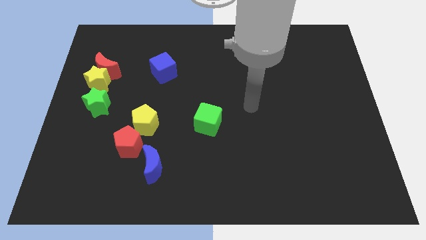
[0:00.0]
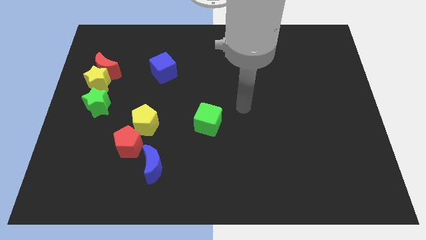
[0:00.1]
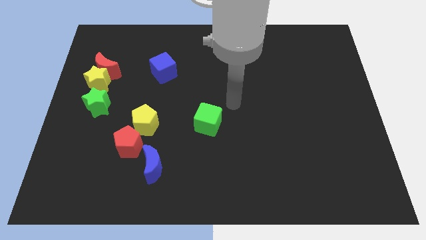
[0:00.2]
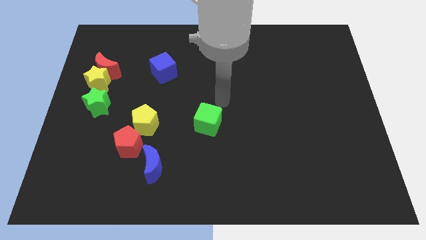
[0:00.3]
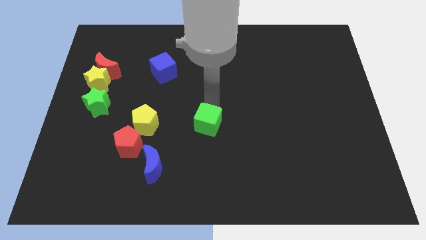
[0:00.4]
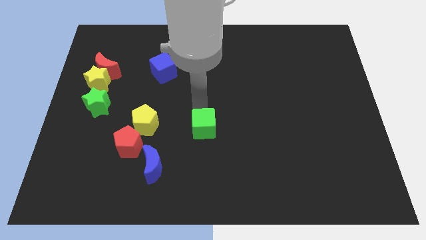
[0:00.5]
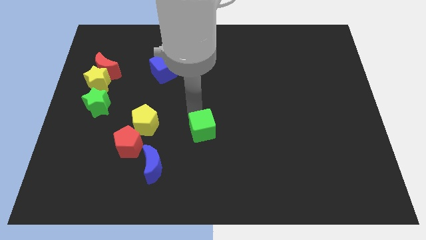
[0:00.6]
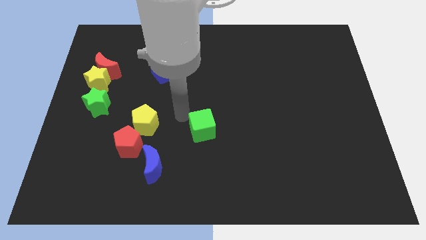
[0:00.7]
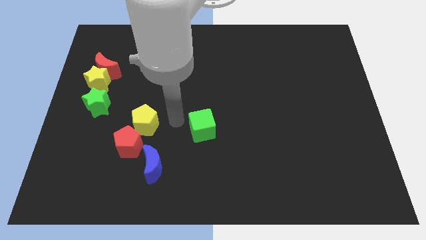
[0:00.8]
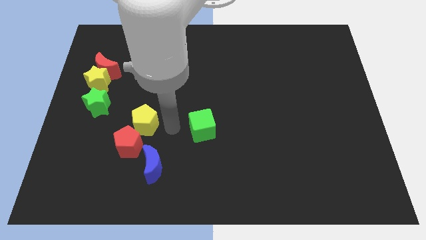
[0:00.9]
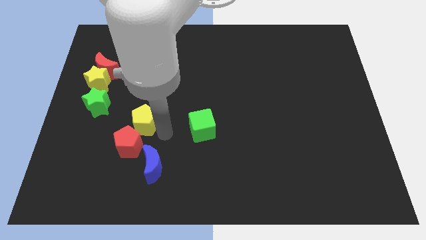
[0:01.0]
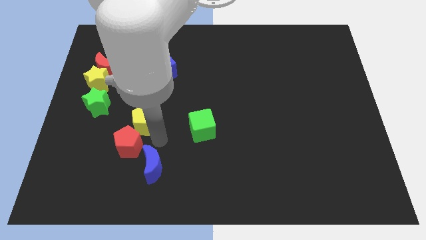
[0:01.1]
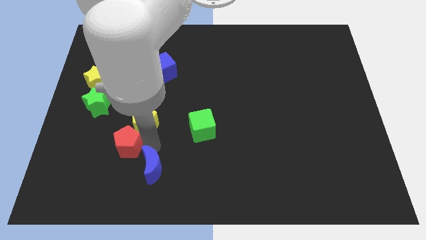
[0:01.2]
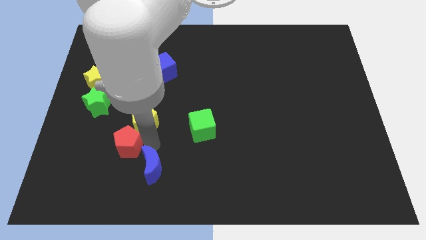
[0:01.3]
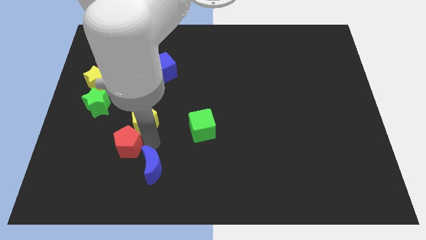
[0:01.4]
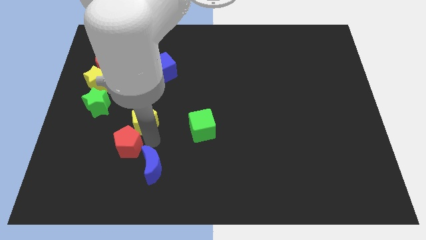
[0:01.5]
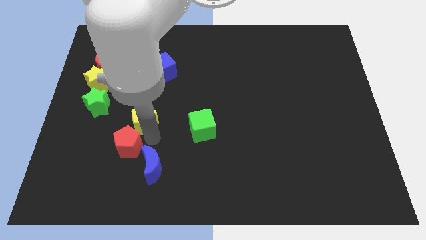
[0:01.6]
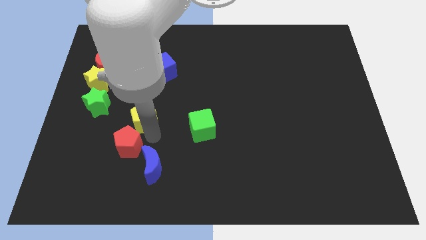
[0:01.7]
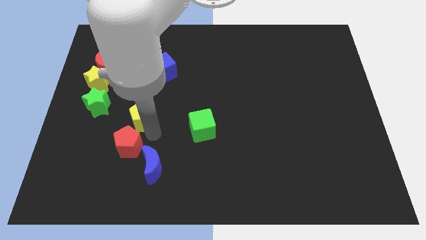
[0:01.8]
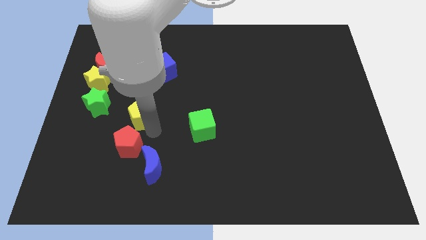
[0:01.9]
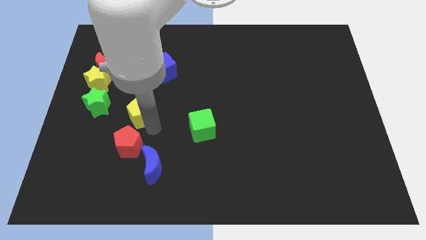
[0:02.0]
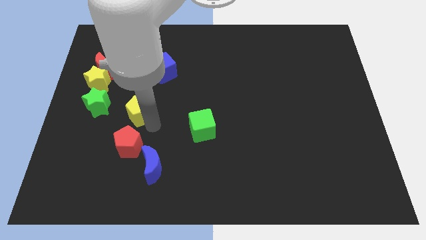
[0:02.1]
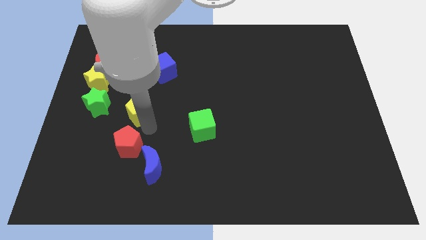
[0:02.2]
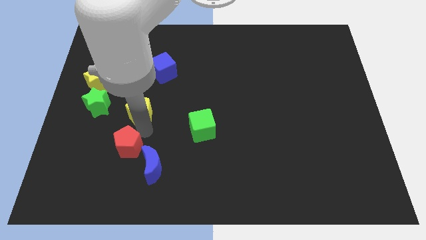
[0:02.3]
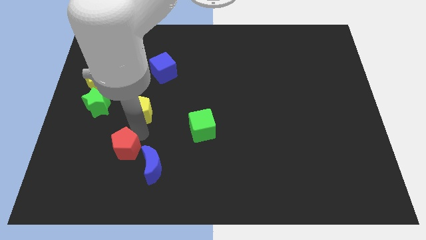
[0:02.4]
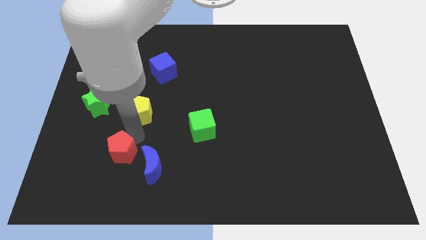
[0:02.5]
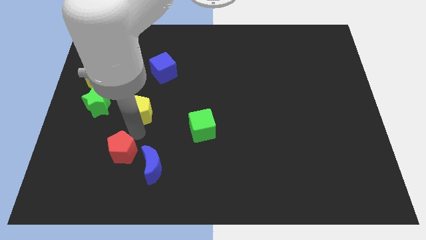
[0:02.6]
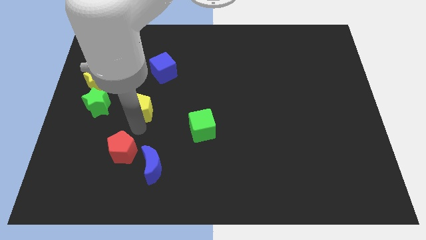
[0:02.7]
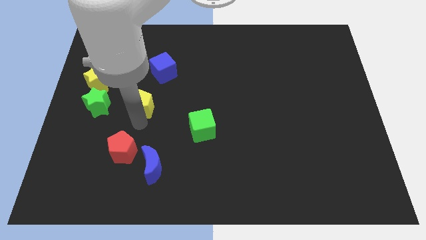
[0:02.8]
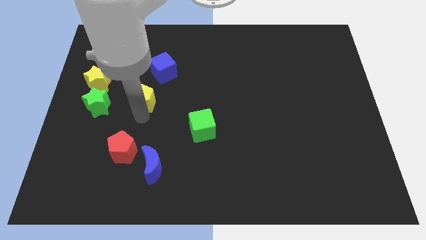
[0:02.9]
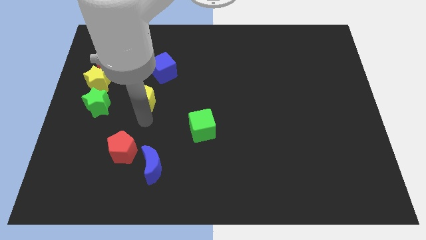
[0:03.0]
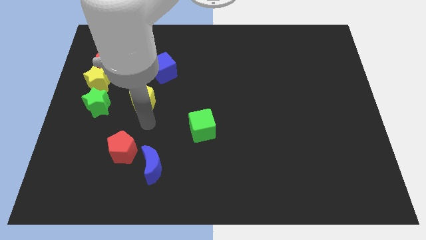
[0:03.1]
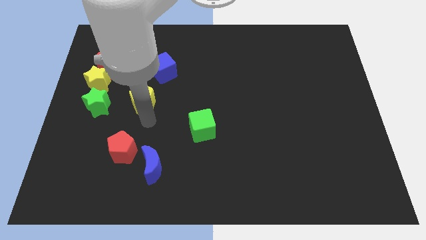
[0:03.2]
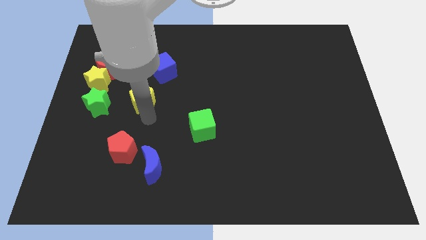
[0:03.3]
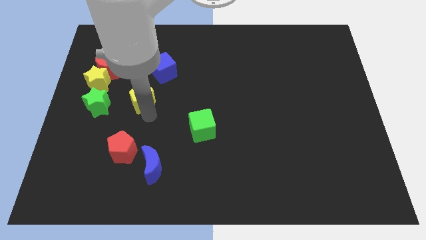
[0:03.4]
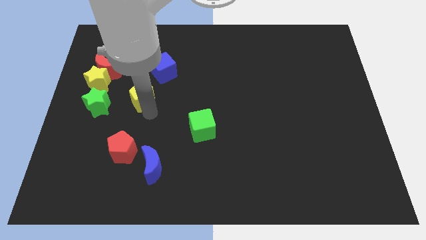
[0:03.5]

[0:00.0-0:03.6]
slide the yellow pentagon upwards a bit

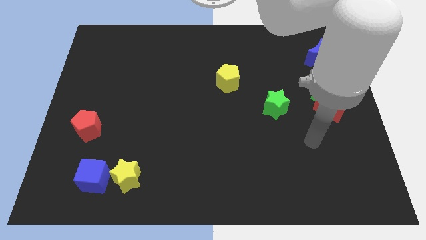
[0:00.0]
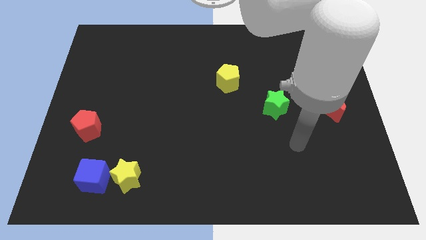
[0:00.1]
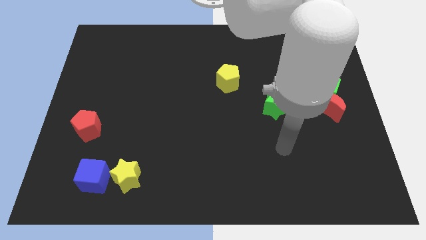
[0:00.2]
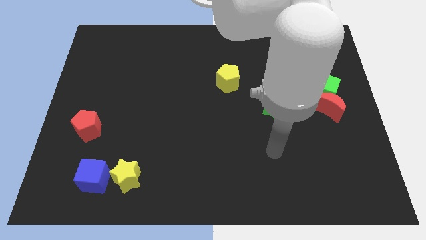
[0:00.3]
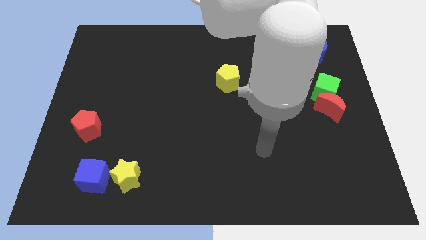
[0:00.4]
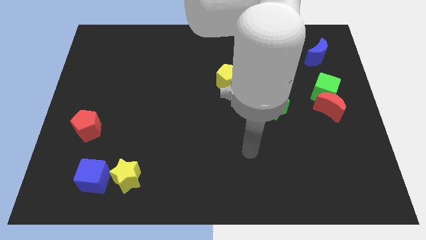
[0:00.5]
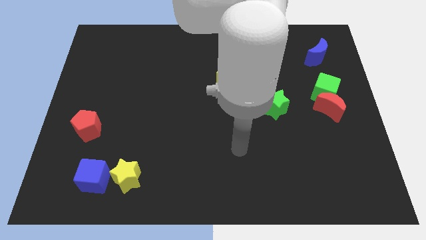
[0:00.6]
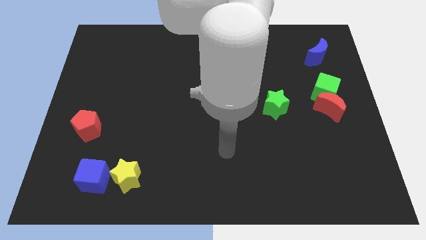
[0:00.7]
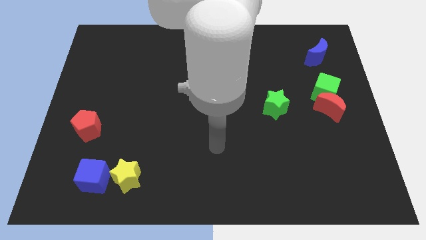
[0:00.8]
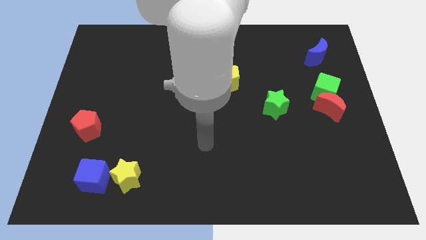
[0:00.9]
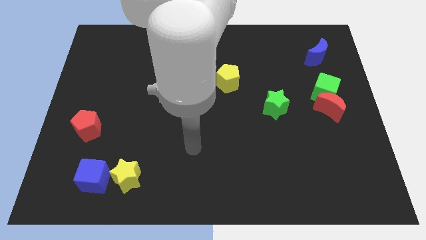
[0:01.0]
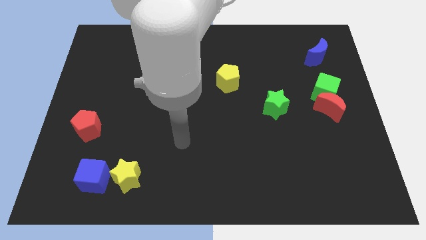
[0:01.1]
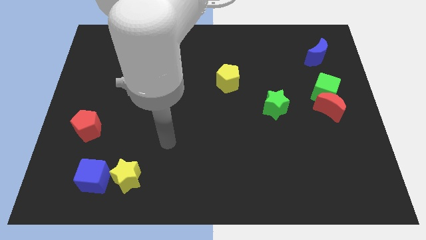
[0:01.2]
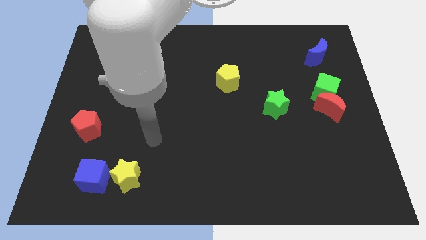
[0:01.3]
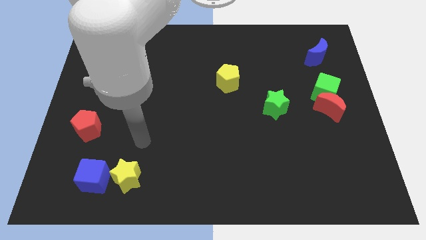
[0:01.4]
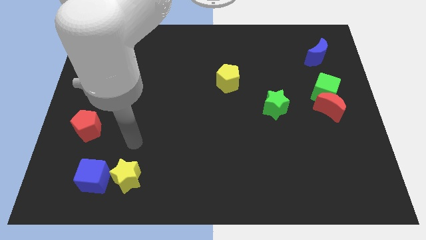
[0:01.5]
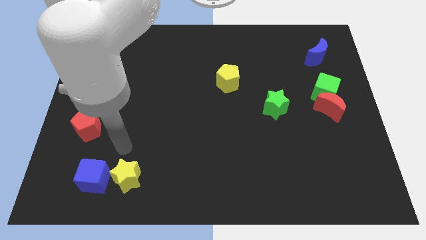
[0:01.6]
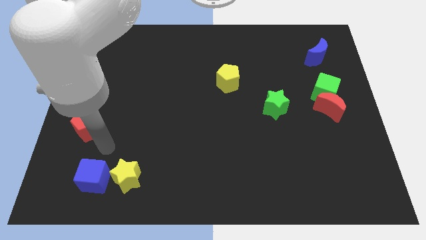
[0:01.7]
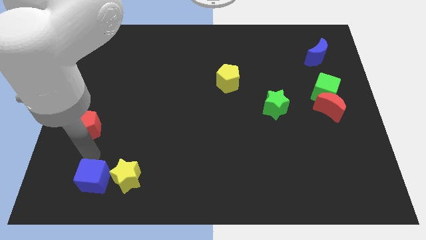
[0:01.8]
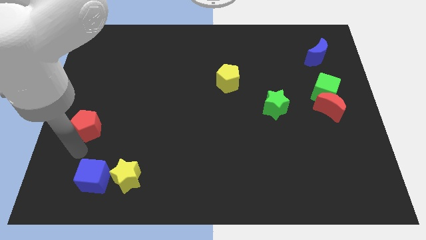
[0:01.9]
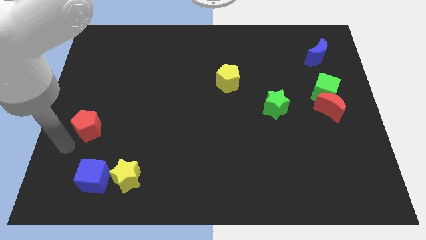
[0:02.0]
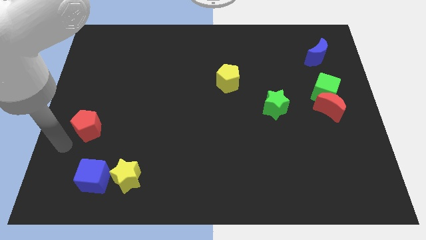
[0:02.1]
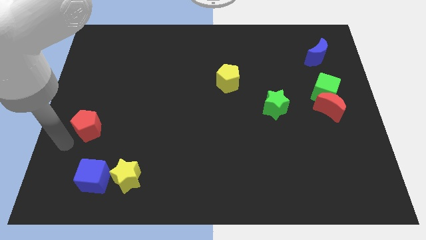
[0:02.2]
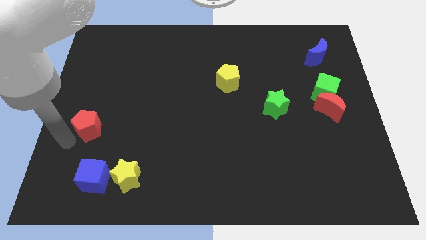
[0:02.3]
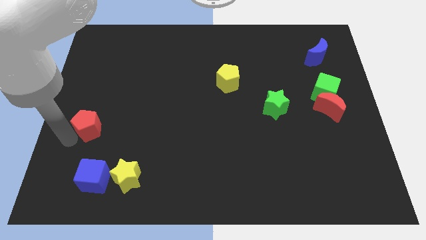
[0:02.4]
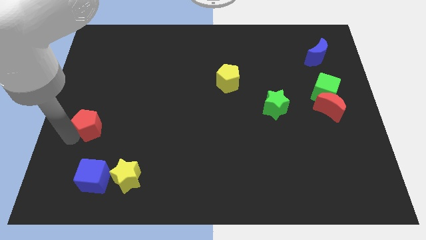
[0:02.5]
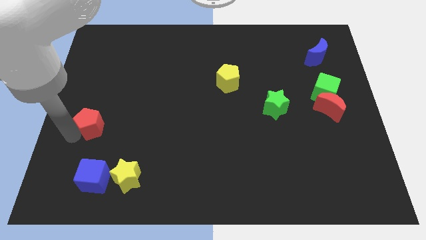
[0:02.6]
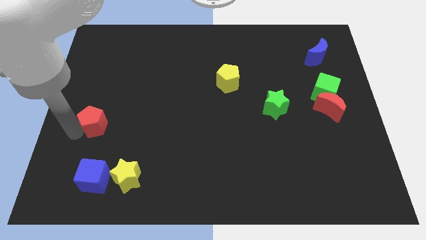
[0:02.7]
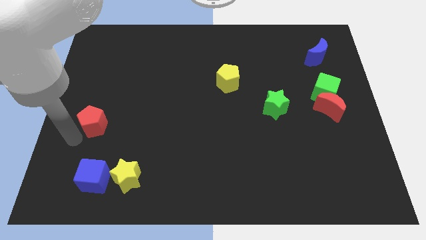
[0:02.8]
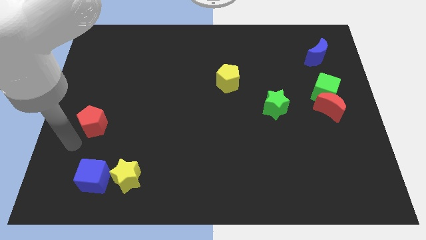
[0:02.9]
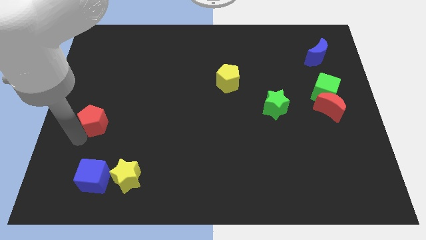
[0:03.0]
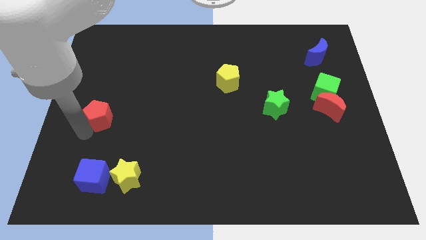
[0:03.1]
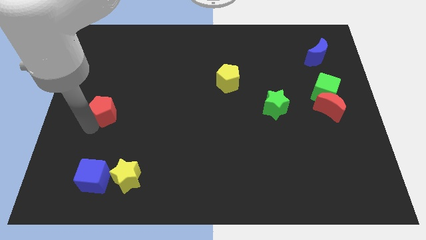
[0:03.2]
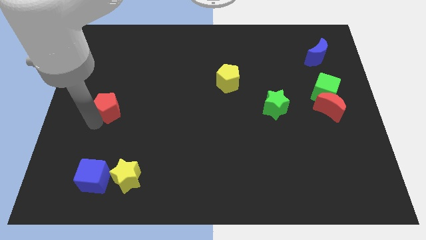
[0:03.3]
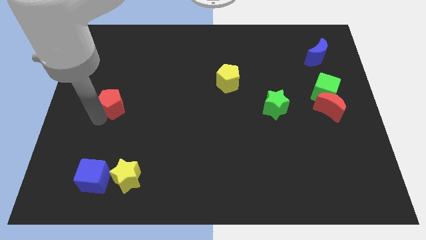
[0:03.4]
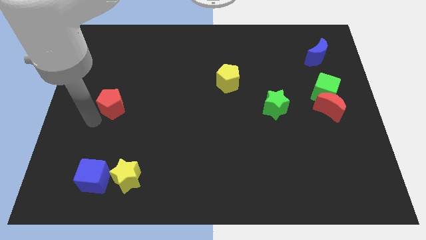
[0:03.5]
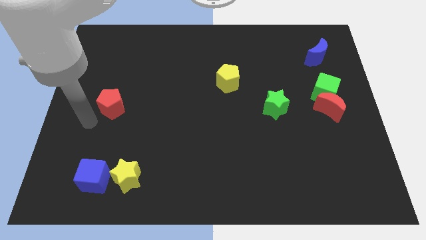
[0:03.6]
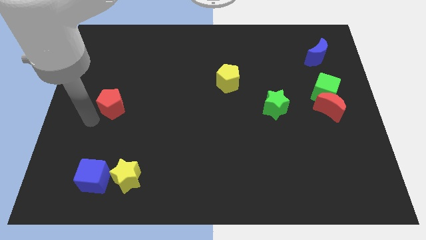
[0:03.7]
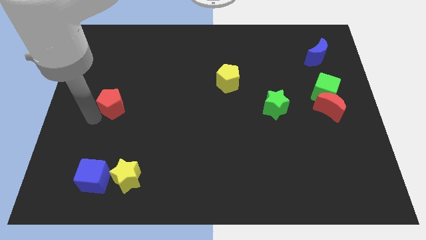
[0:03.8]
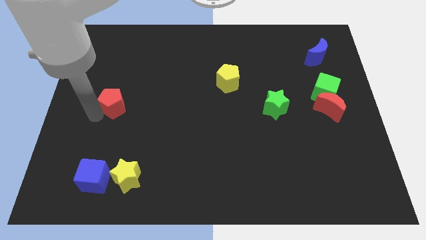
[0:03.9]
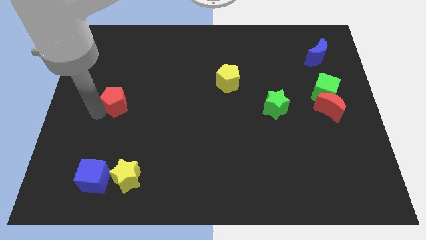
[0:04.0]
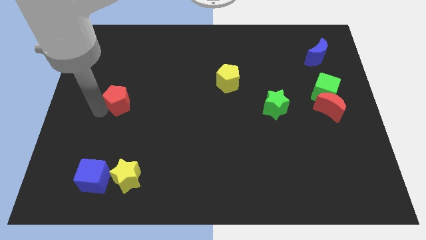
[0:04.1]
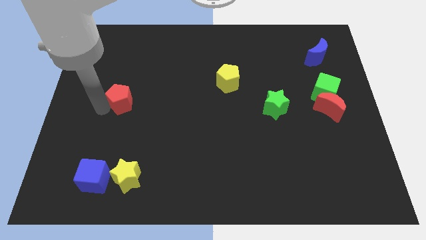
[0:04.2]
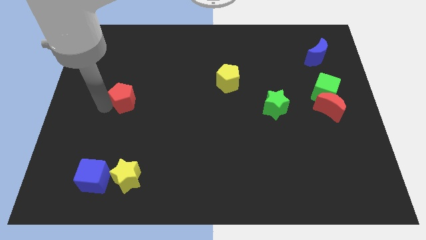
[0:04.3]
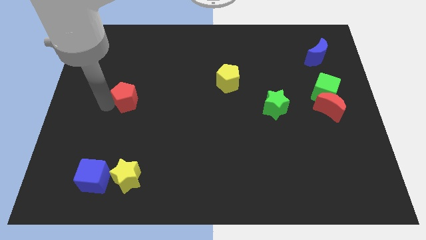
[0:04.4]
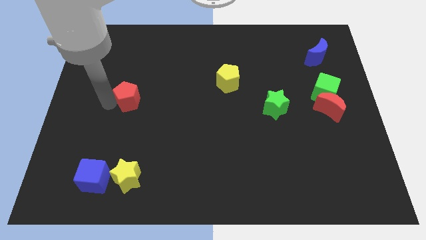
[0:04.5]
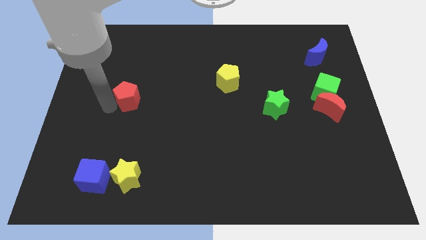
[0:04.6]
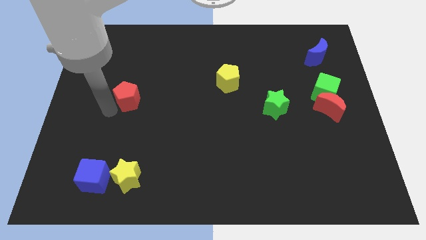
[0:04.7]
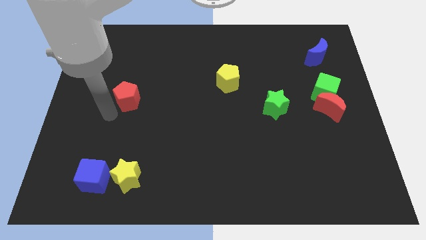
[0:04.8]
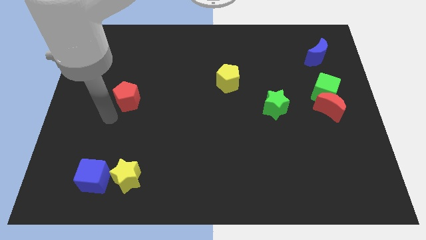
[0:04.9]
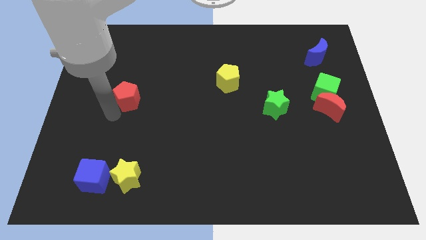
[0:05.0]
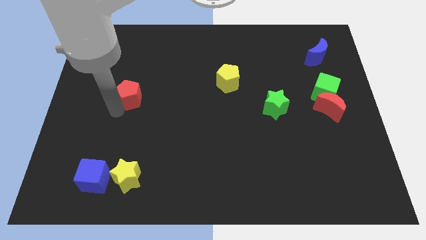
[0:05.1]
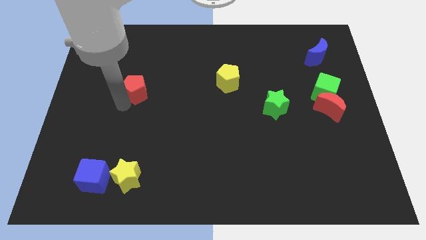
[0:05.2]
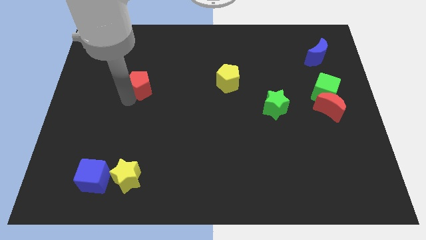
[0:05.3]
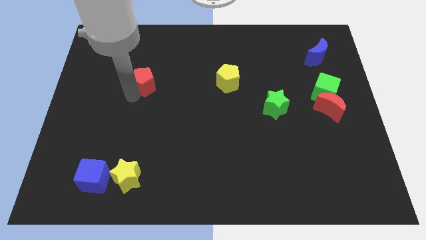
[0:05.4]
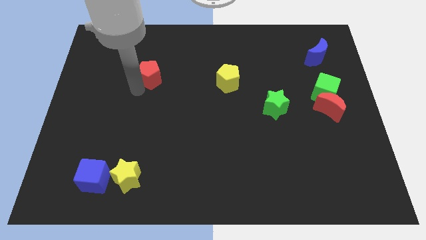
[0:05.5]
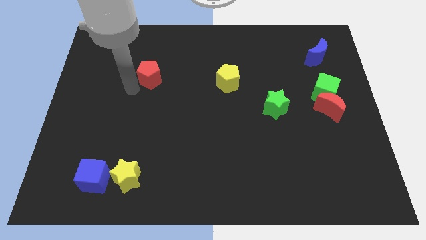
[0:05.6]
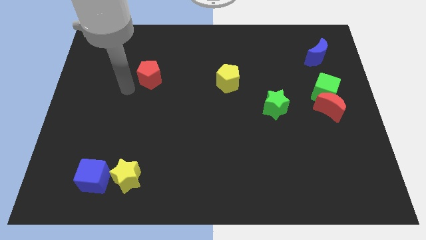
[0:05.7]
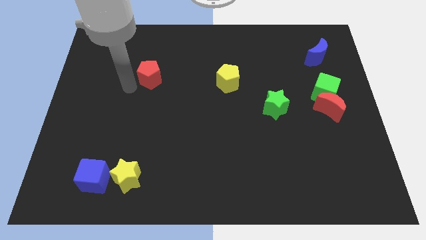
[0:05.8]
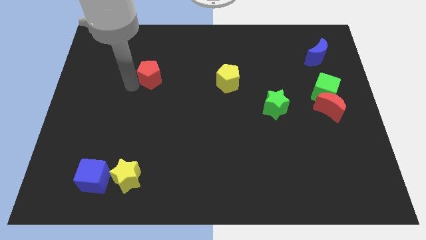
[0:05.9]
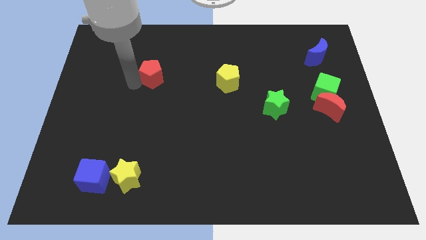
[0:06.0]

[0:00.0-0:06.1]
move the red pentagon upwards and then to the right
